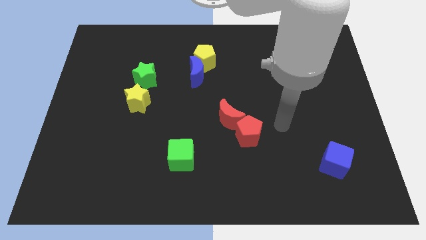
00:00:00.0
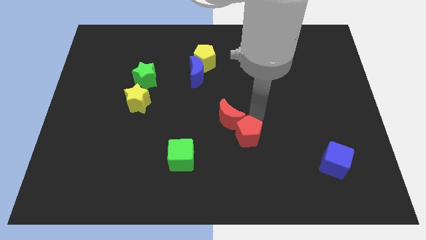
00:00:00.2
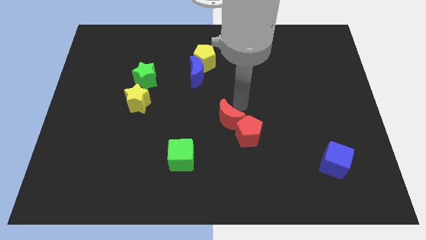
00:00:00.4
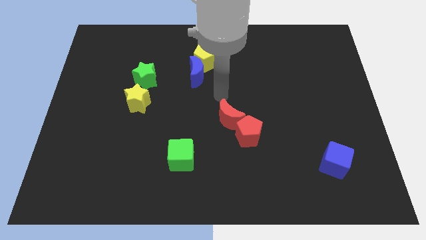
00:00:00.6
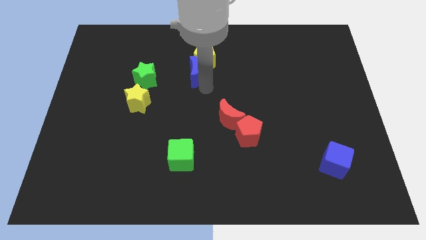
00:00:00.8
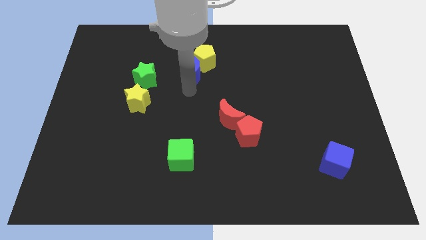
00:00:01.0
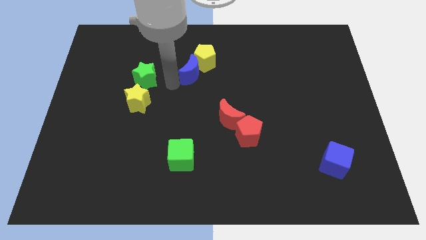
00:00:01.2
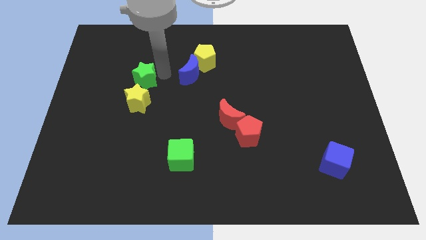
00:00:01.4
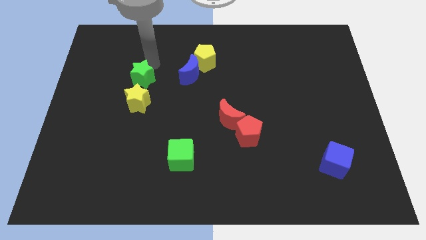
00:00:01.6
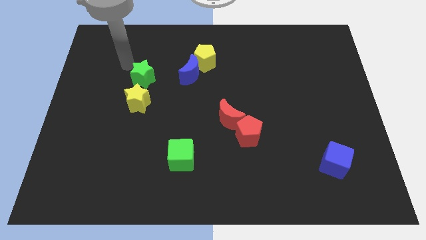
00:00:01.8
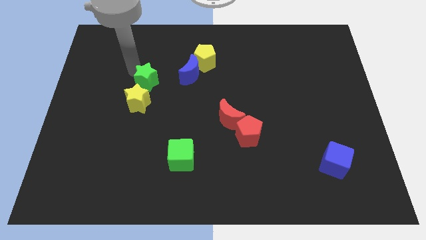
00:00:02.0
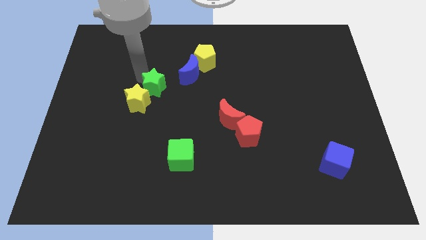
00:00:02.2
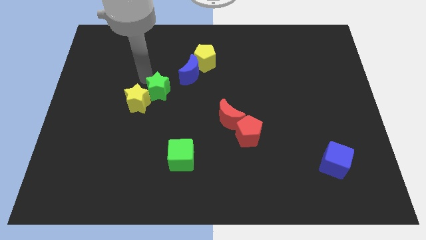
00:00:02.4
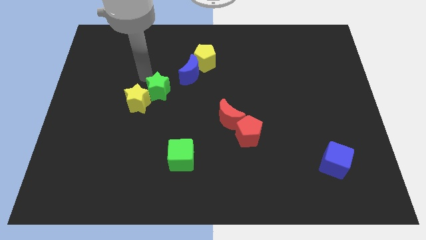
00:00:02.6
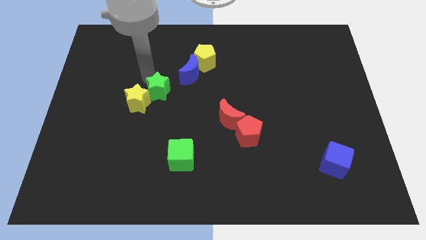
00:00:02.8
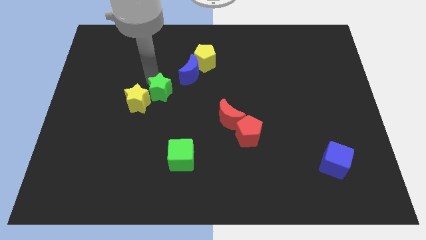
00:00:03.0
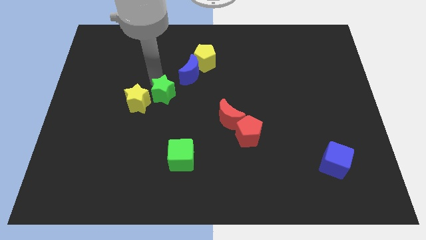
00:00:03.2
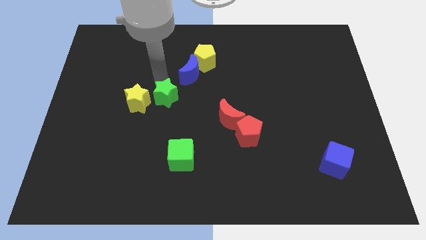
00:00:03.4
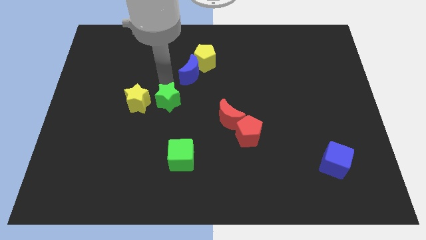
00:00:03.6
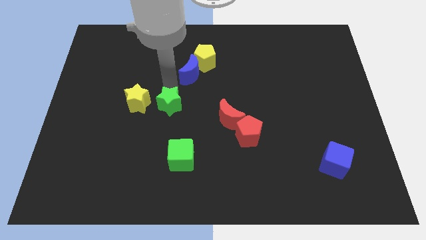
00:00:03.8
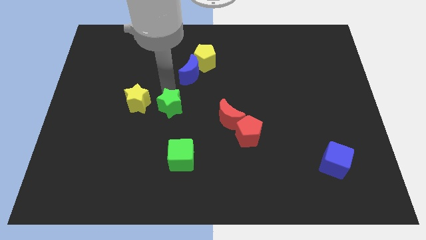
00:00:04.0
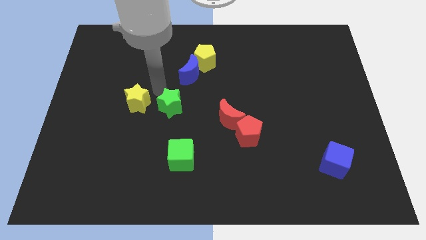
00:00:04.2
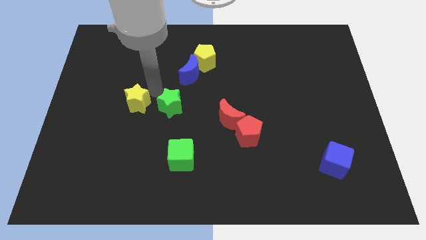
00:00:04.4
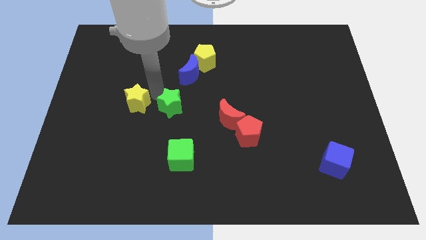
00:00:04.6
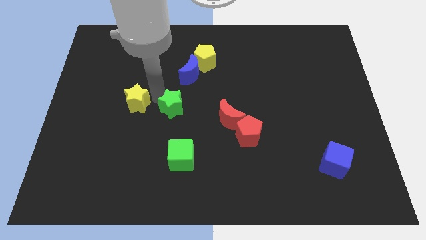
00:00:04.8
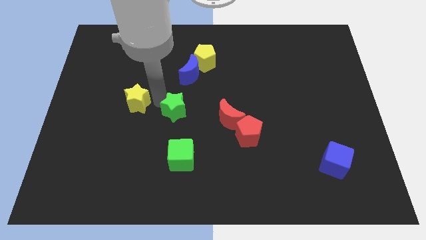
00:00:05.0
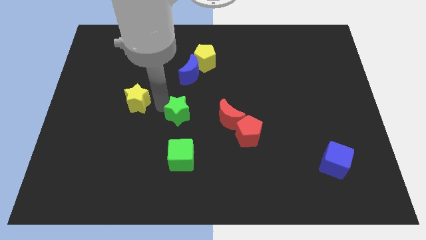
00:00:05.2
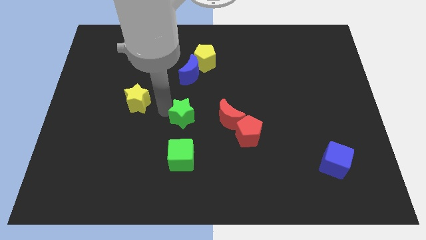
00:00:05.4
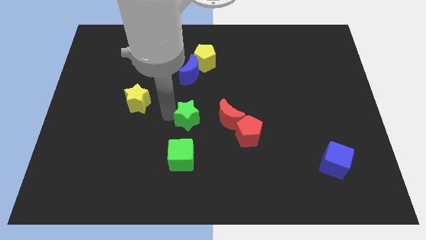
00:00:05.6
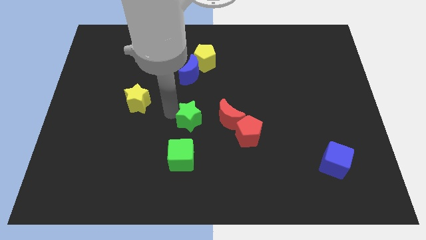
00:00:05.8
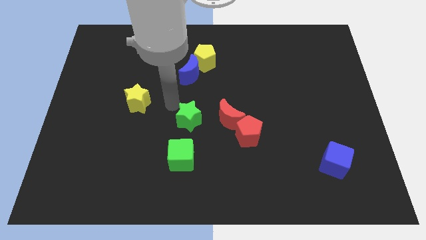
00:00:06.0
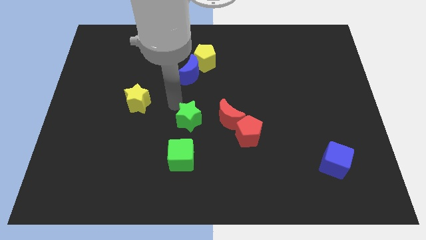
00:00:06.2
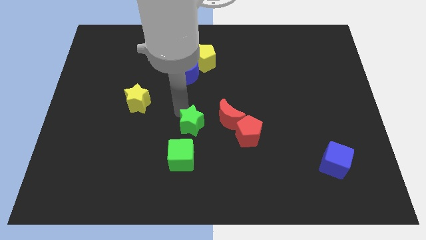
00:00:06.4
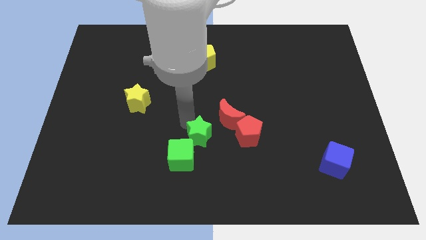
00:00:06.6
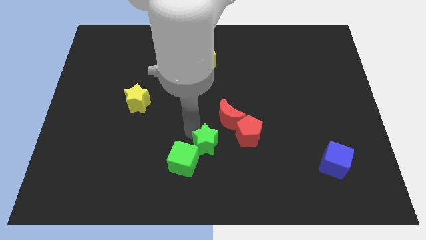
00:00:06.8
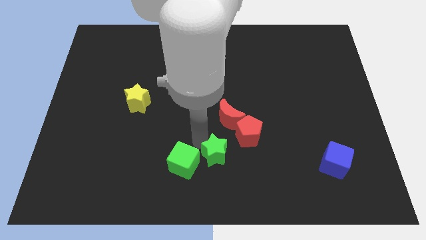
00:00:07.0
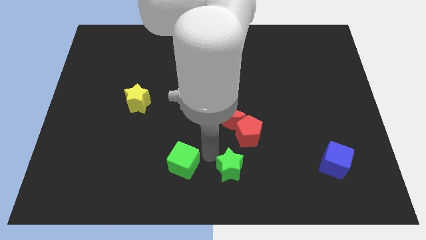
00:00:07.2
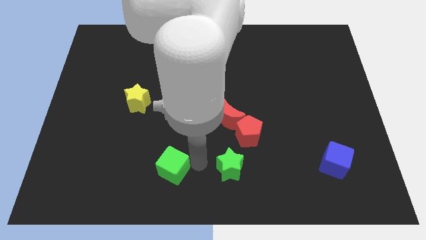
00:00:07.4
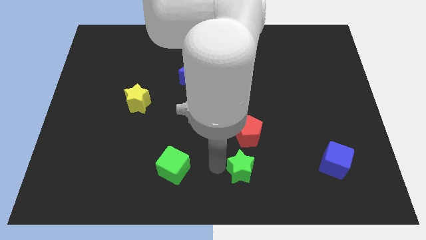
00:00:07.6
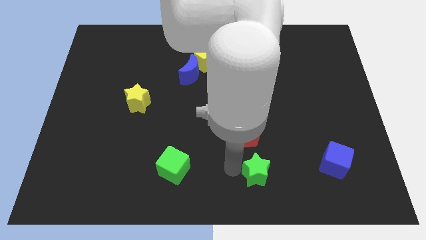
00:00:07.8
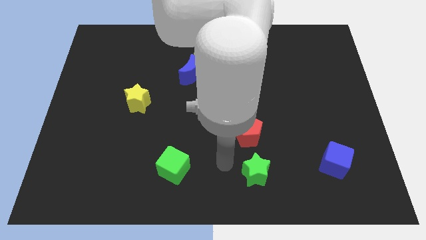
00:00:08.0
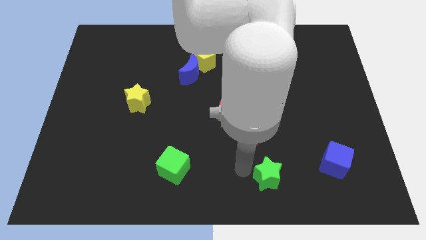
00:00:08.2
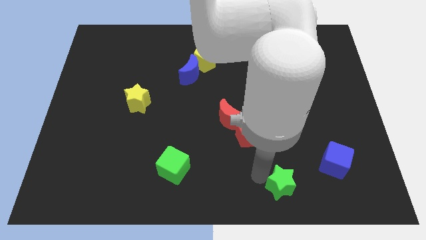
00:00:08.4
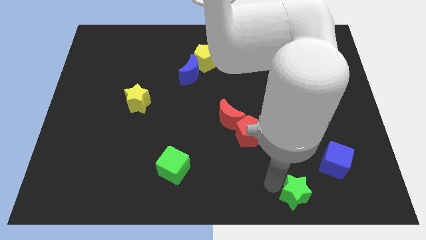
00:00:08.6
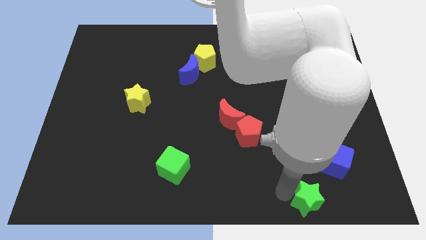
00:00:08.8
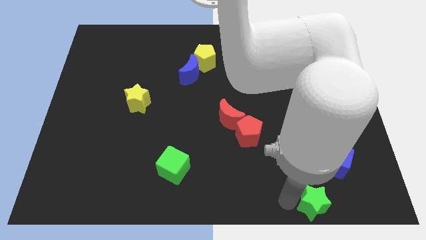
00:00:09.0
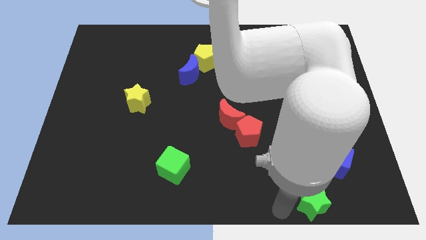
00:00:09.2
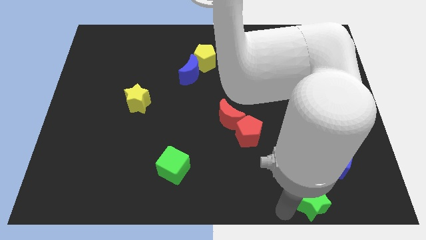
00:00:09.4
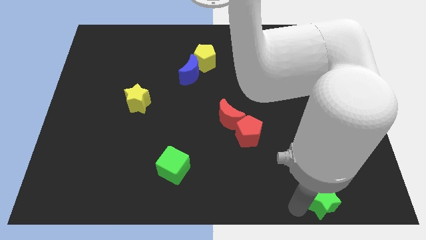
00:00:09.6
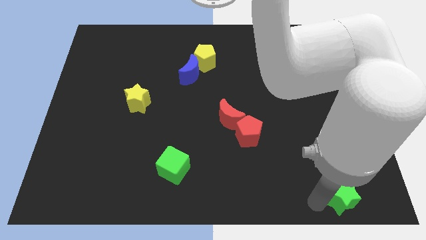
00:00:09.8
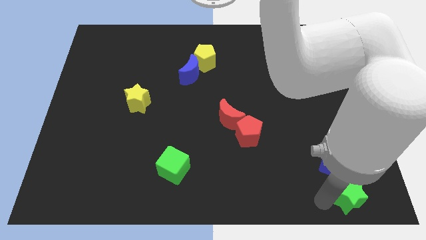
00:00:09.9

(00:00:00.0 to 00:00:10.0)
move the green star to the bottom right of the board
